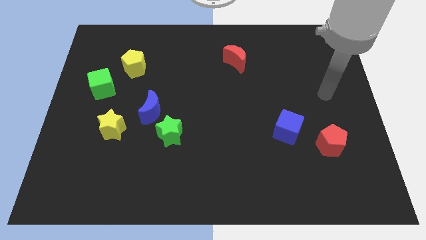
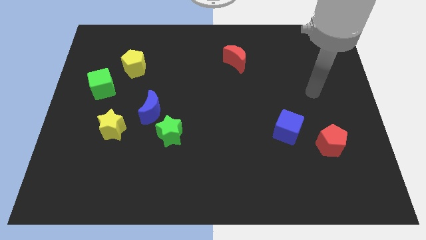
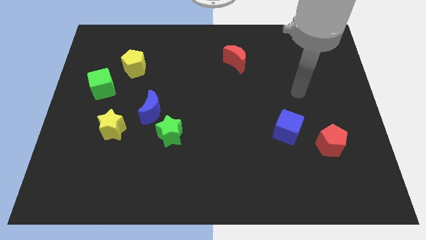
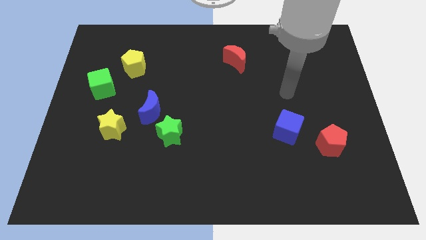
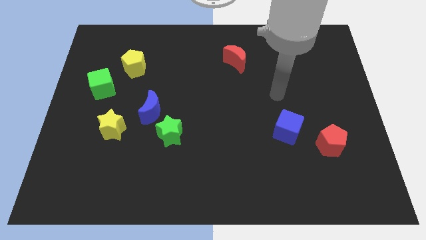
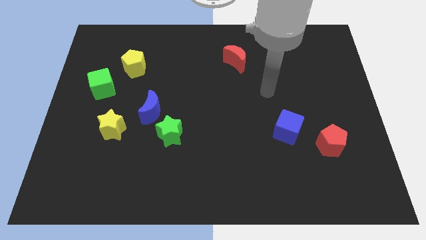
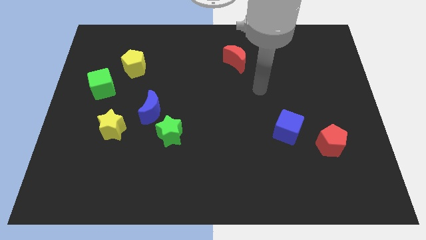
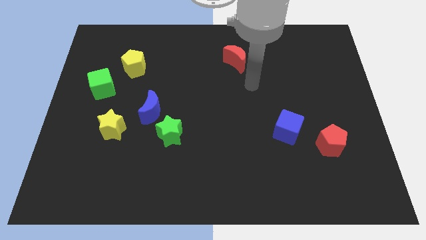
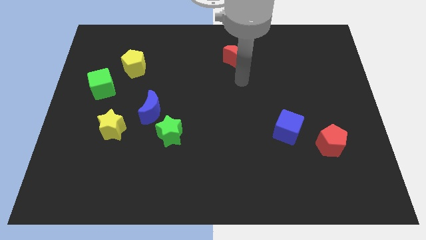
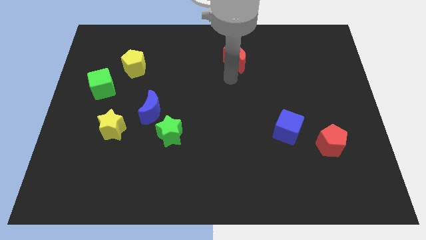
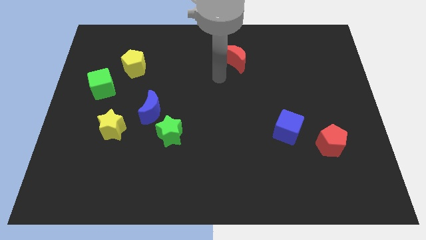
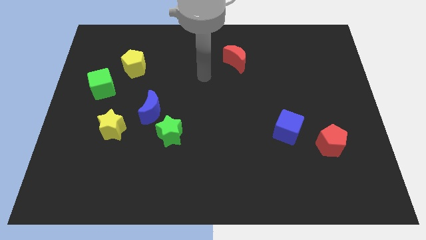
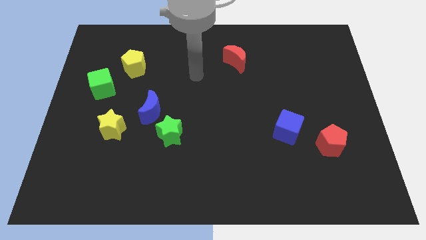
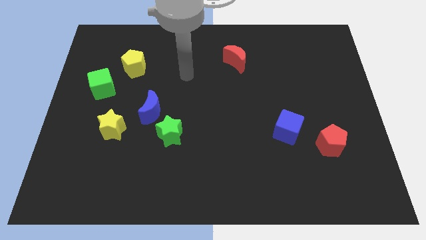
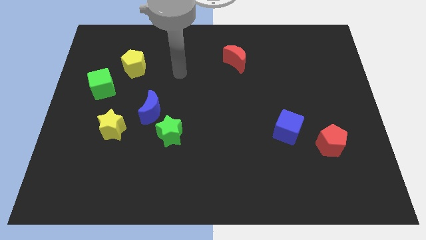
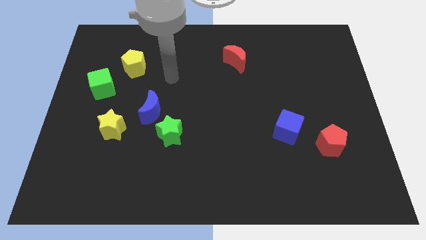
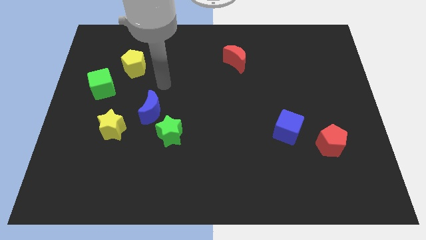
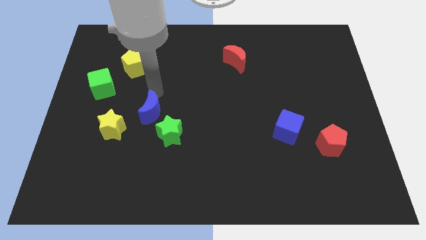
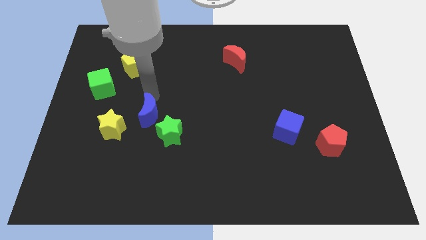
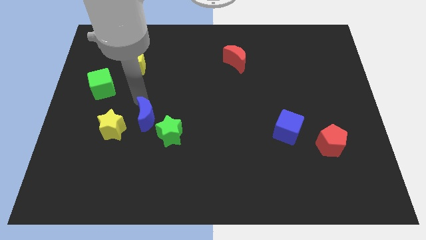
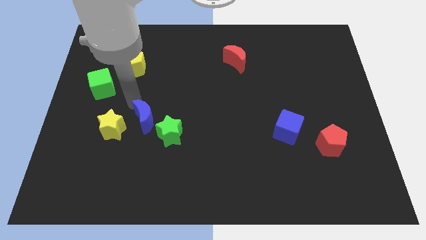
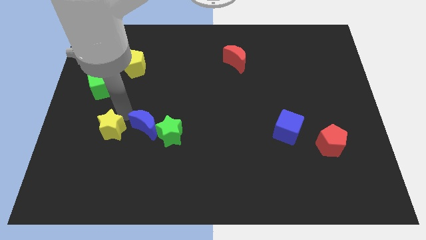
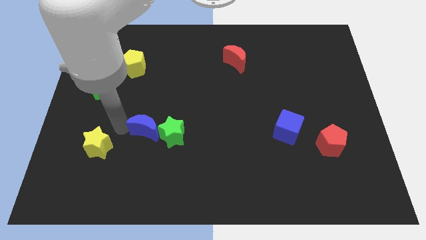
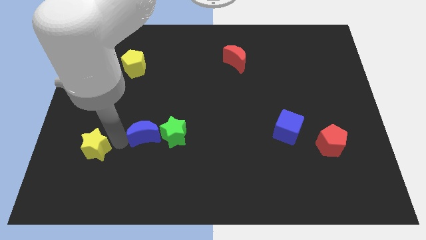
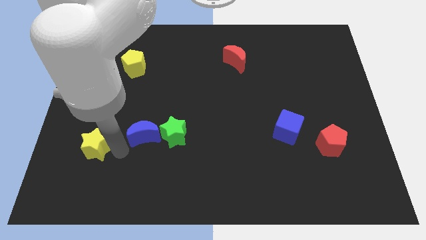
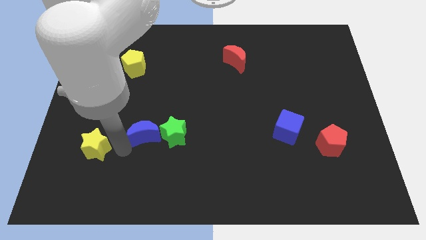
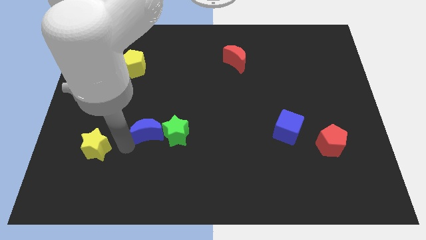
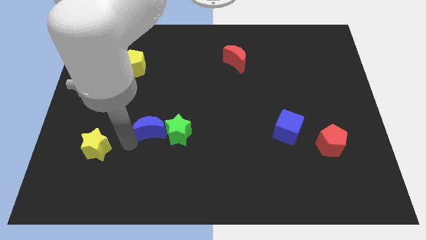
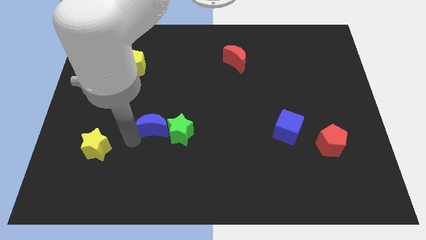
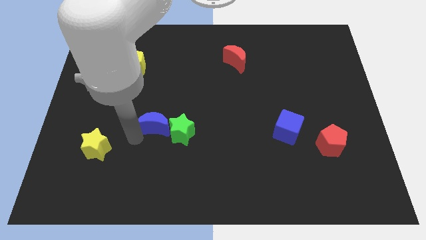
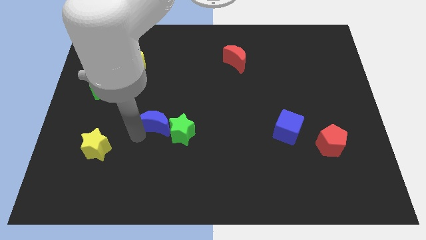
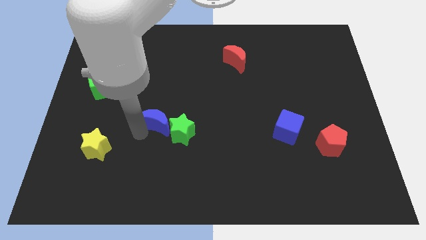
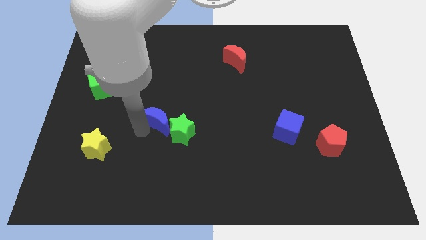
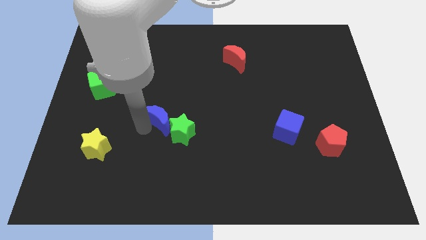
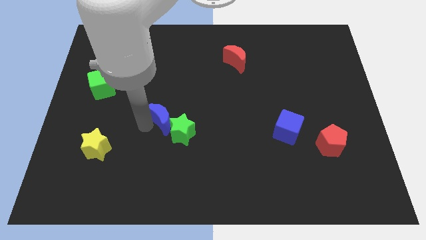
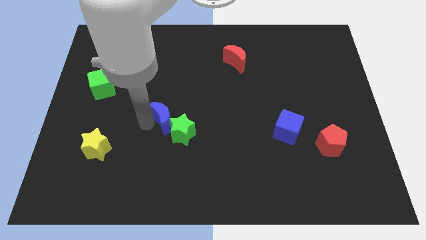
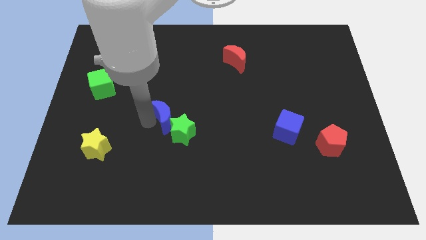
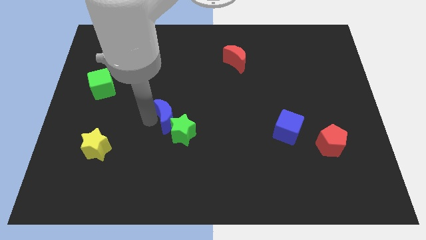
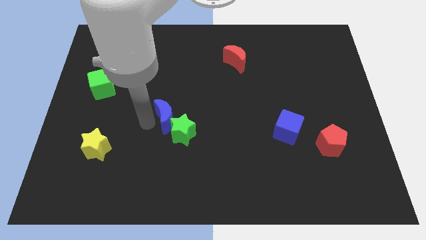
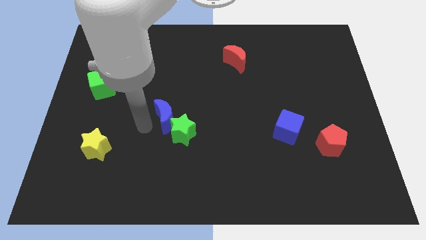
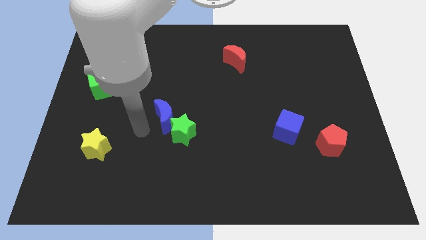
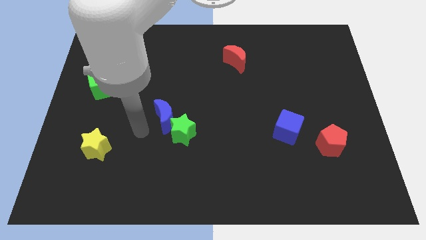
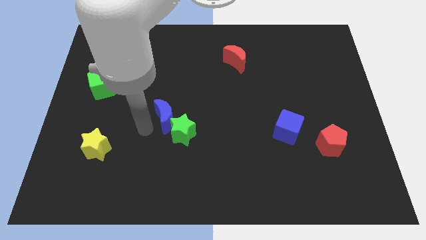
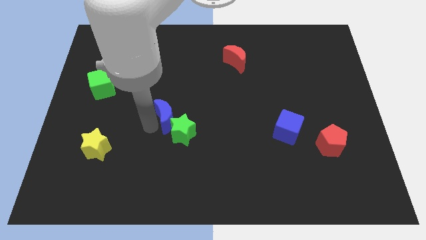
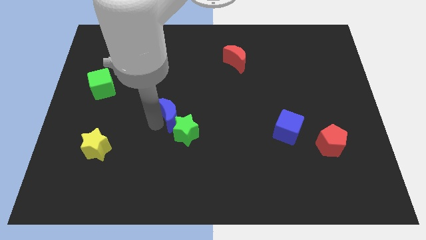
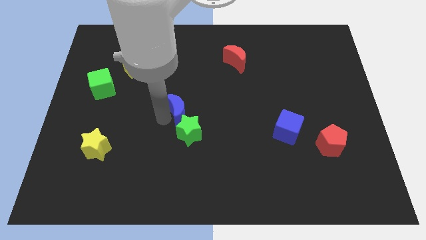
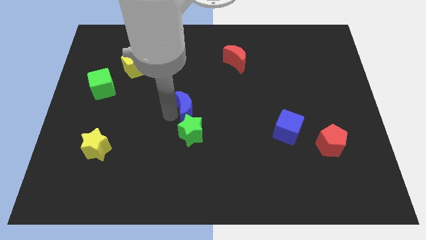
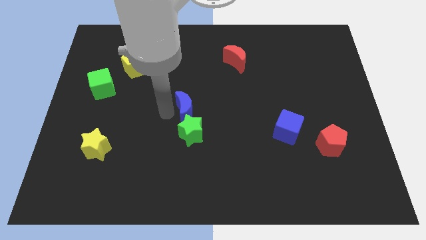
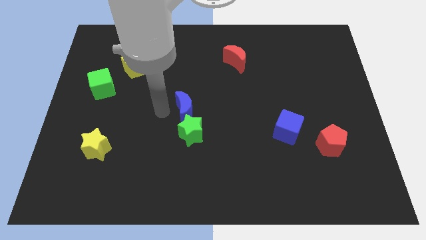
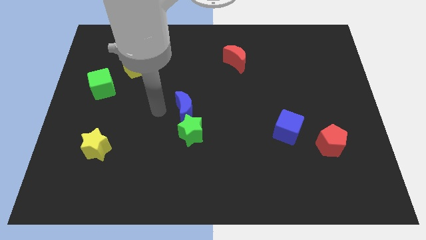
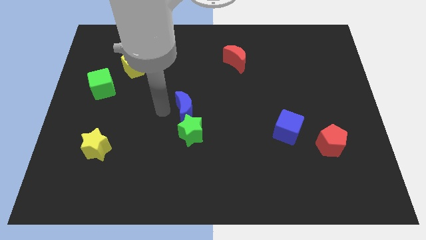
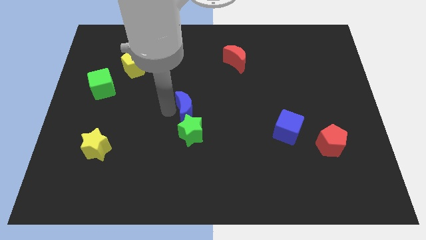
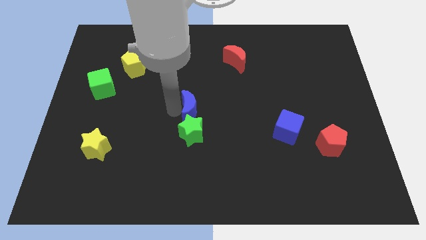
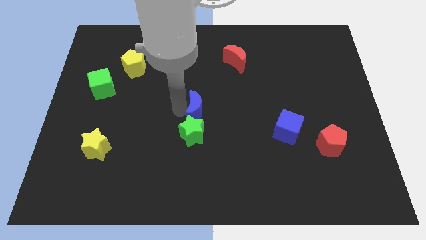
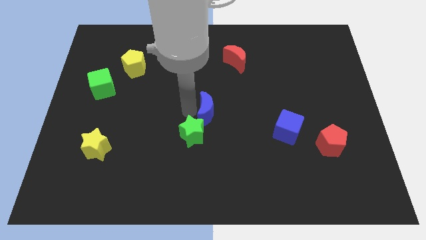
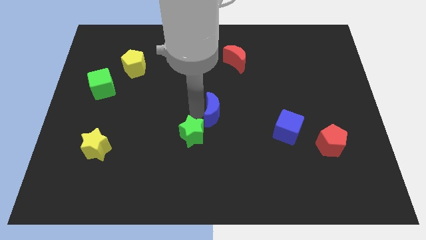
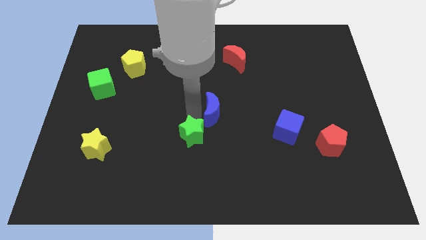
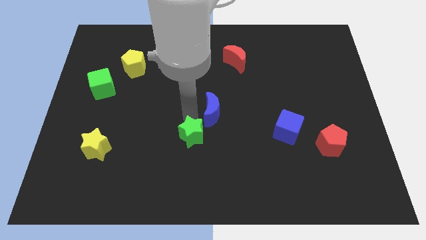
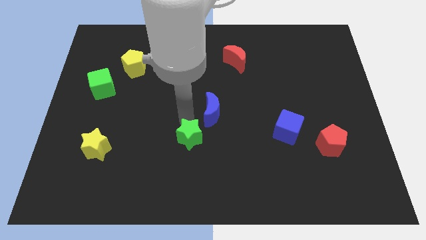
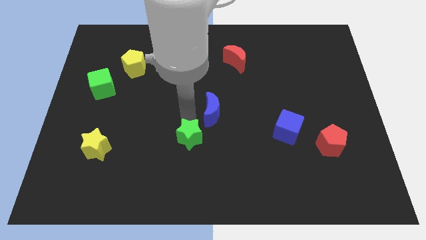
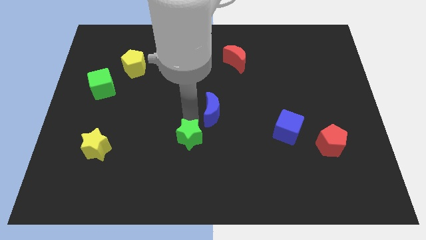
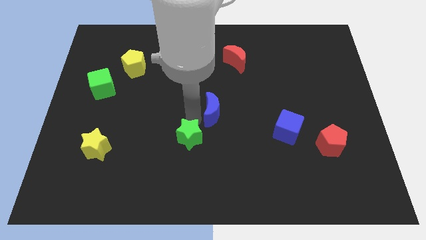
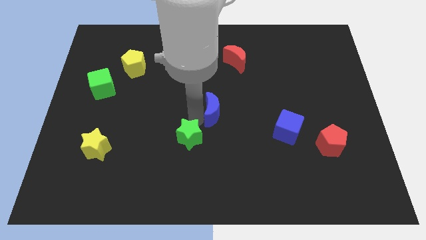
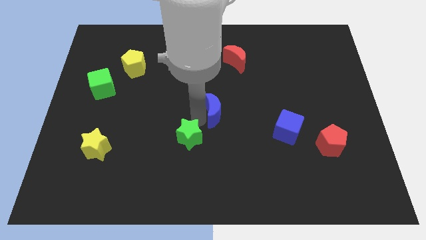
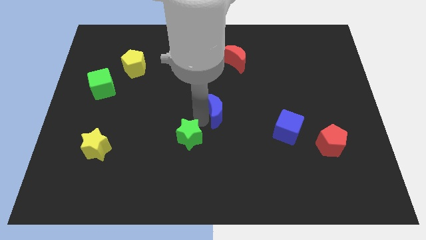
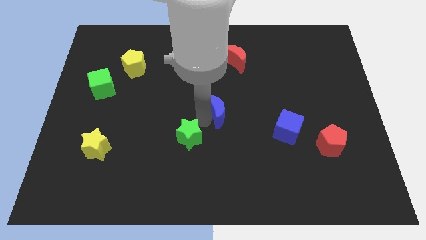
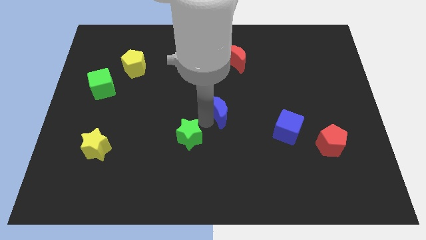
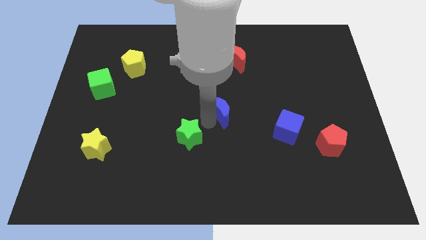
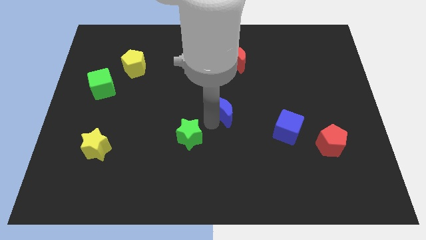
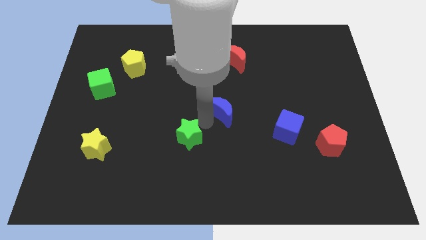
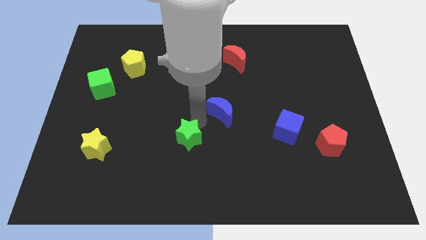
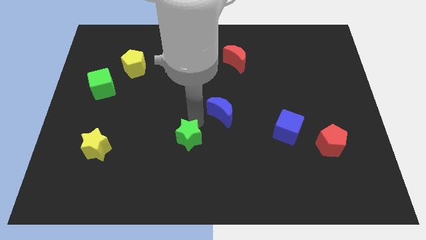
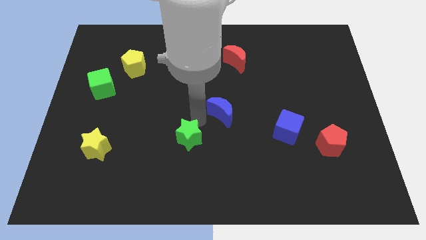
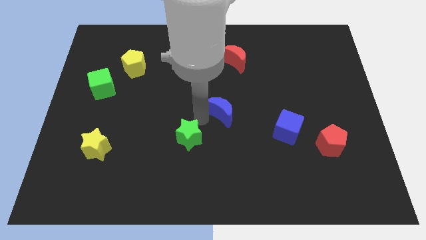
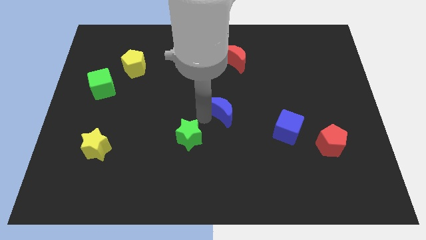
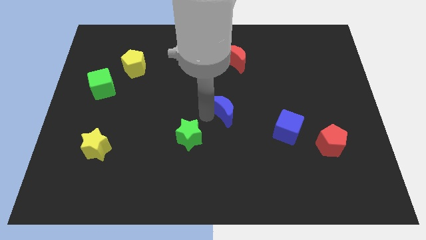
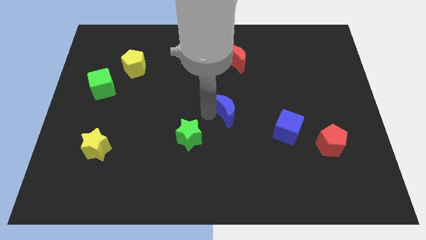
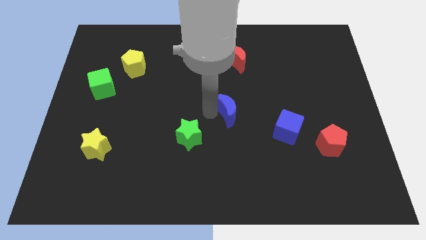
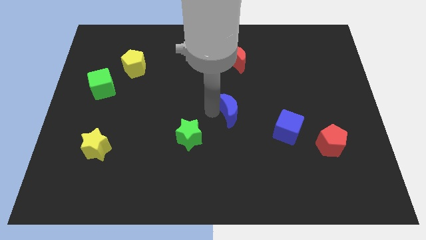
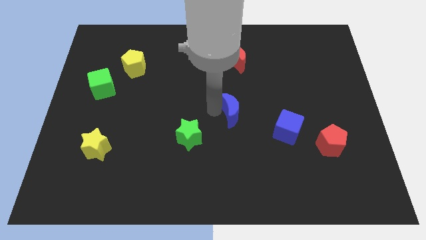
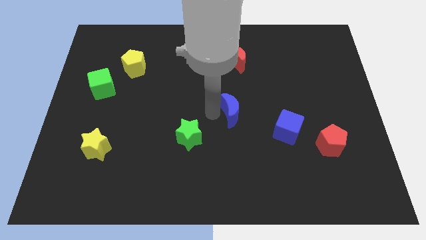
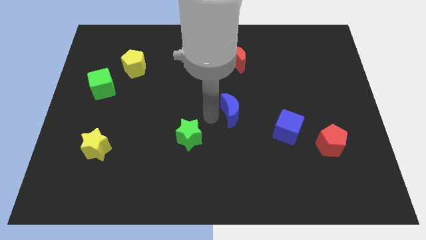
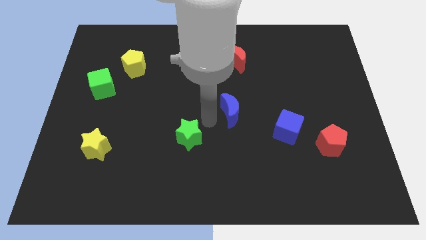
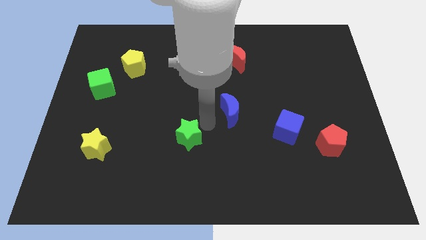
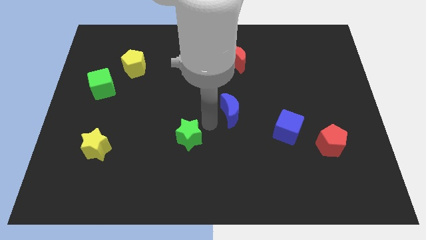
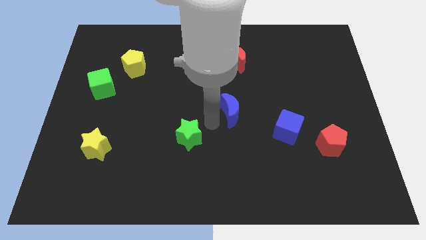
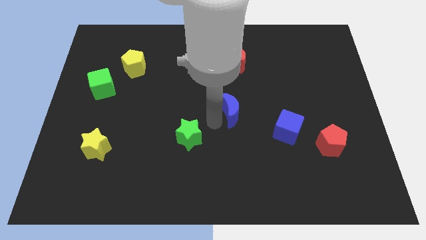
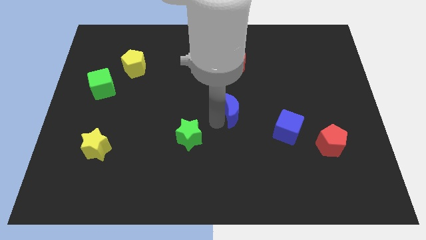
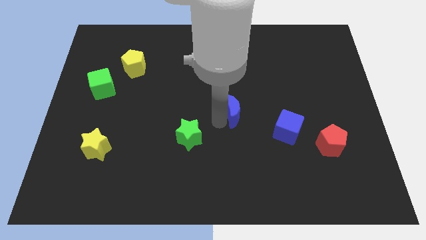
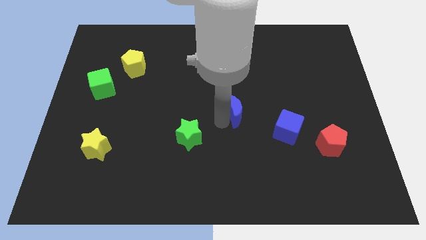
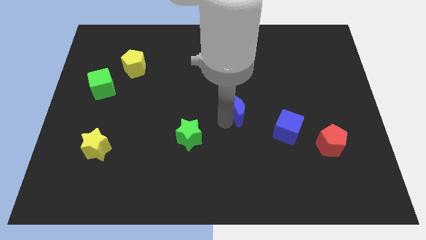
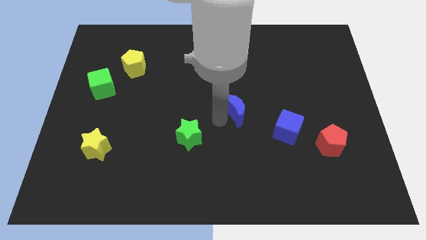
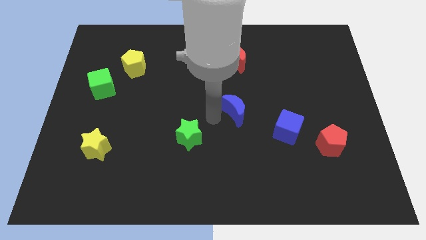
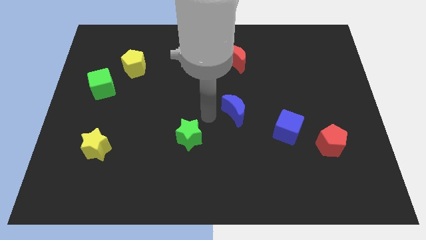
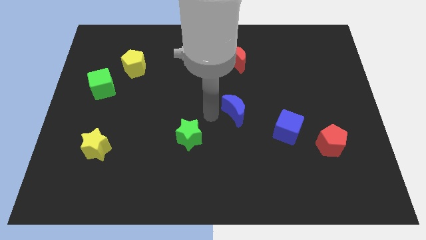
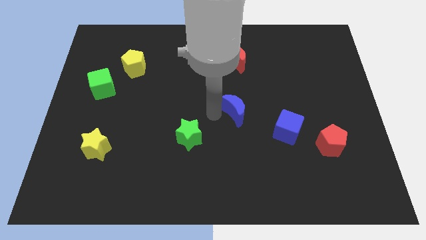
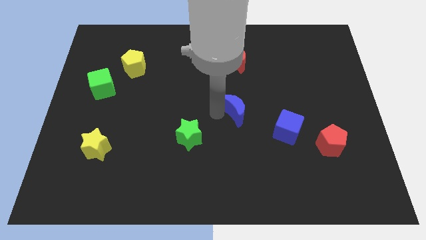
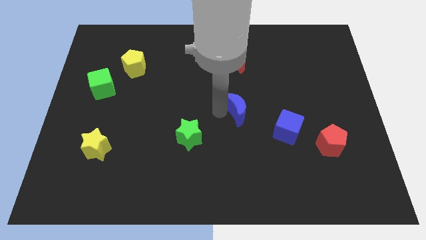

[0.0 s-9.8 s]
move the blue moon to the right
